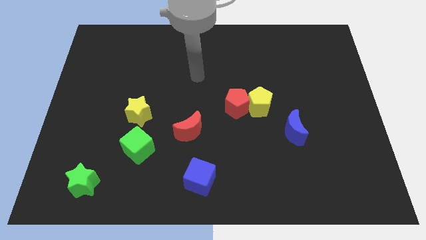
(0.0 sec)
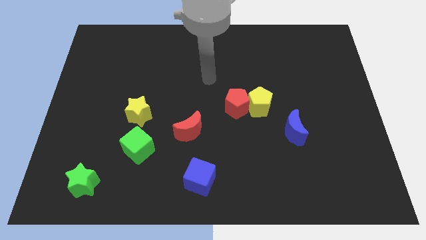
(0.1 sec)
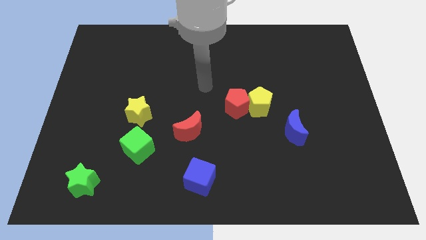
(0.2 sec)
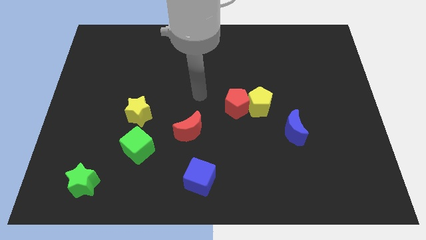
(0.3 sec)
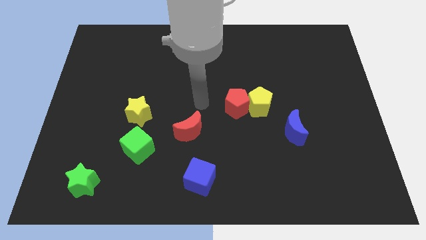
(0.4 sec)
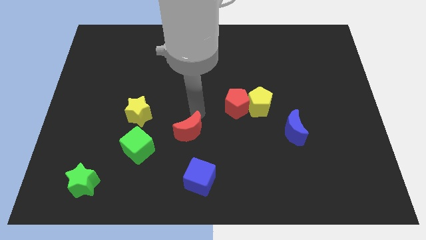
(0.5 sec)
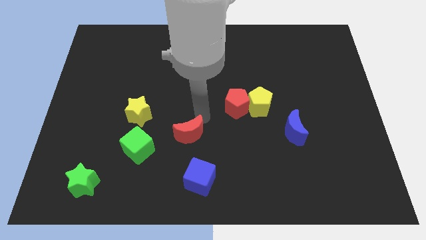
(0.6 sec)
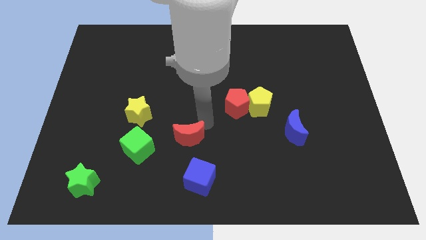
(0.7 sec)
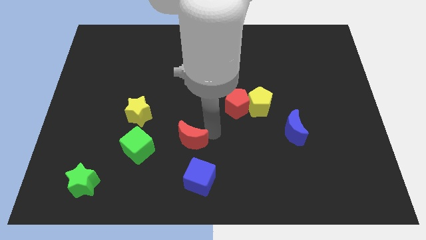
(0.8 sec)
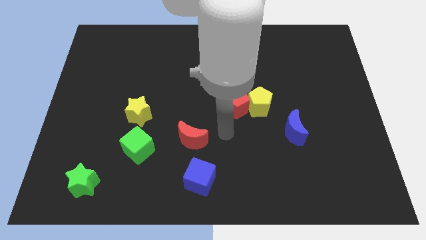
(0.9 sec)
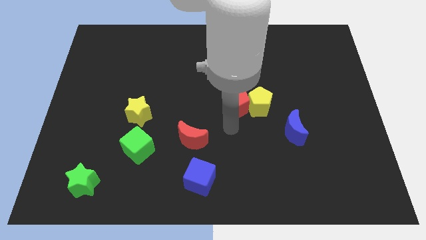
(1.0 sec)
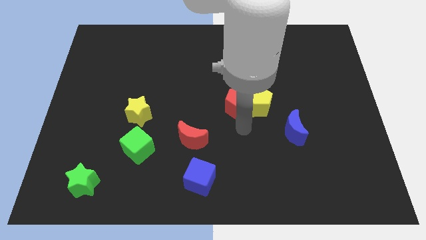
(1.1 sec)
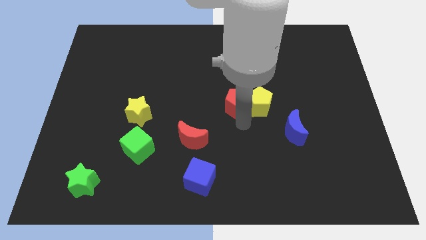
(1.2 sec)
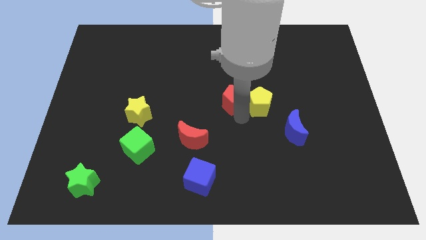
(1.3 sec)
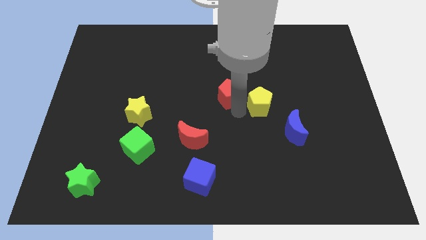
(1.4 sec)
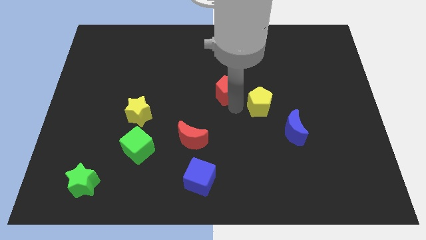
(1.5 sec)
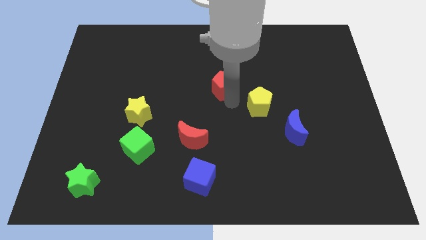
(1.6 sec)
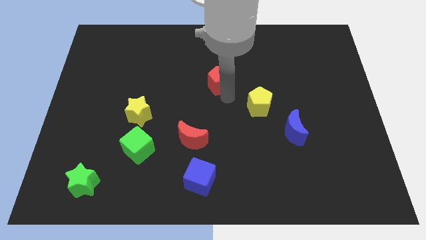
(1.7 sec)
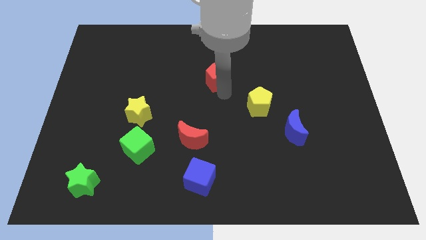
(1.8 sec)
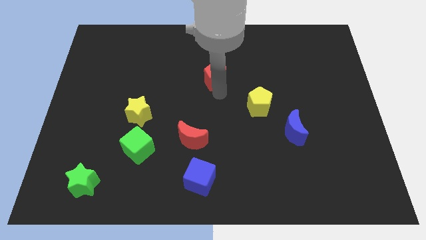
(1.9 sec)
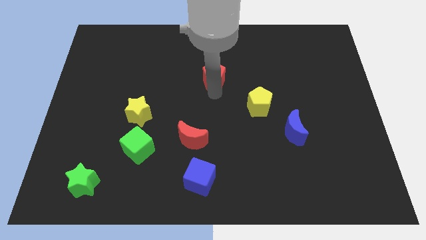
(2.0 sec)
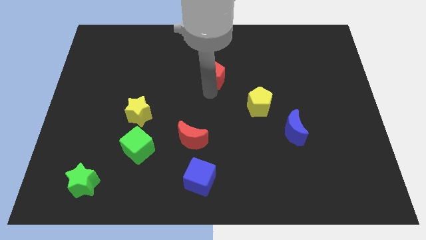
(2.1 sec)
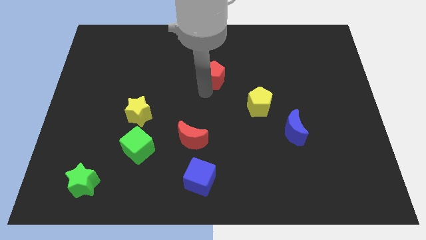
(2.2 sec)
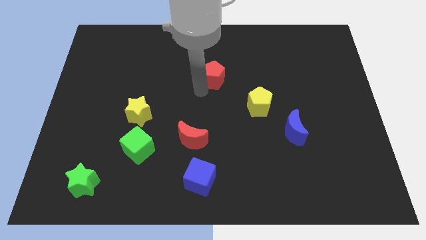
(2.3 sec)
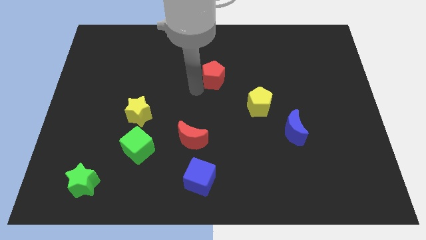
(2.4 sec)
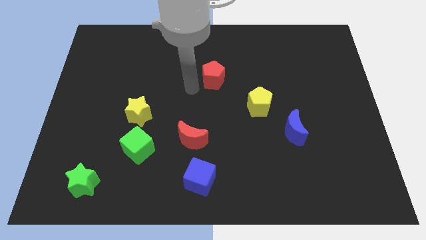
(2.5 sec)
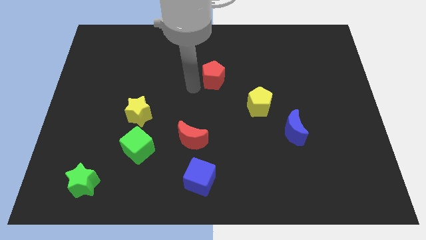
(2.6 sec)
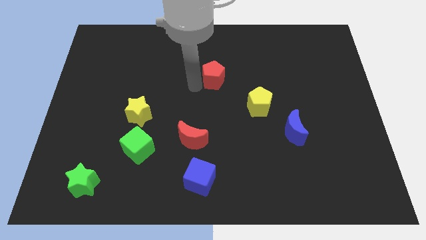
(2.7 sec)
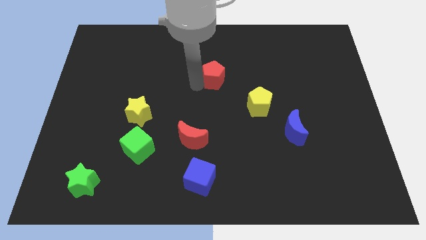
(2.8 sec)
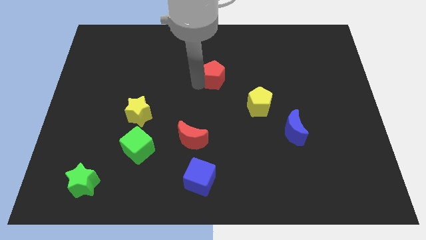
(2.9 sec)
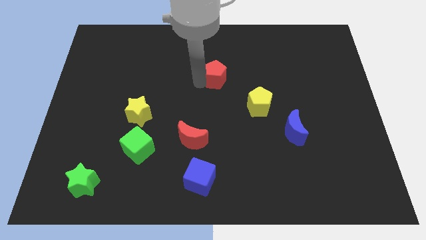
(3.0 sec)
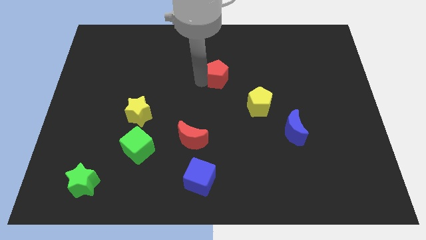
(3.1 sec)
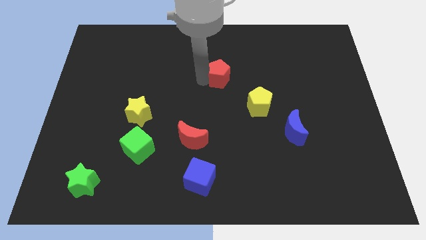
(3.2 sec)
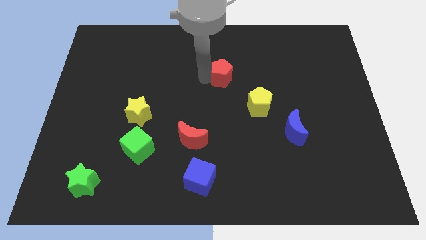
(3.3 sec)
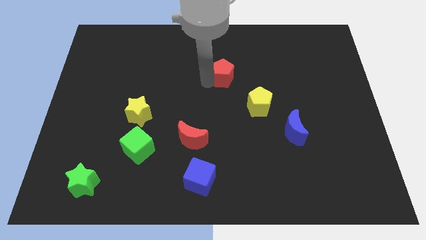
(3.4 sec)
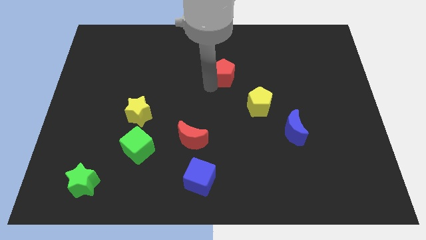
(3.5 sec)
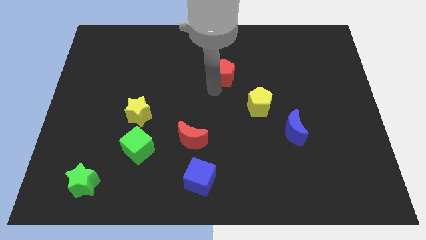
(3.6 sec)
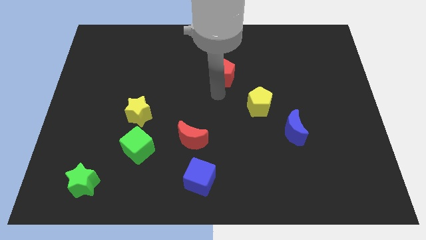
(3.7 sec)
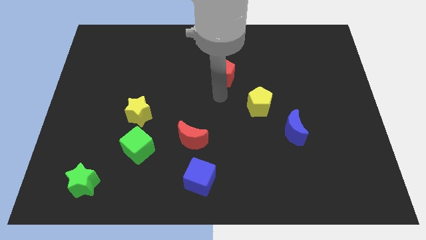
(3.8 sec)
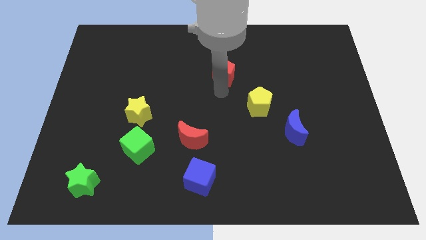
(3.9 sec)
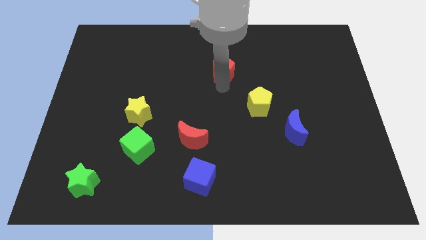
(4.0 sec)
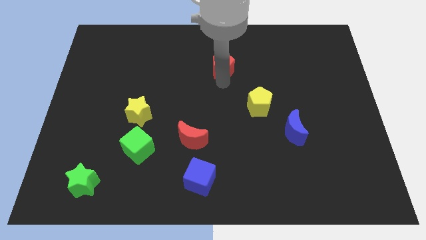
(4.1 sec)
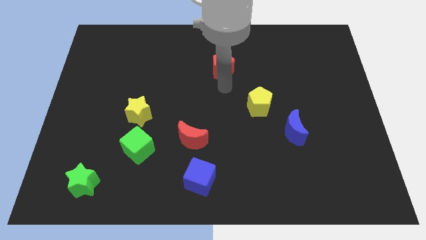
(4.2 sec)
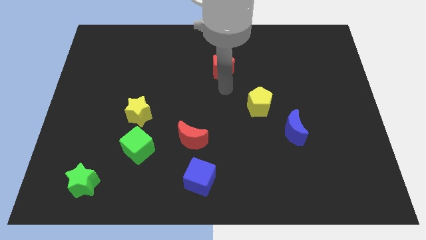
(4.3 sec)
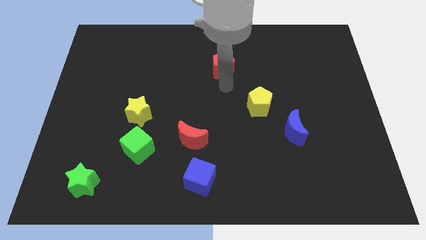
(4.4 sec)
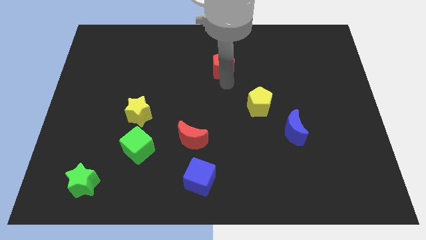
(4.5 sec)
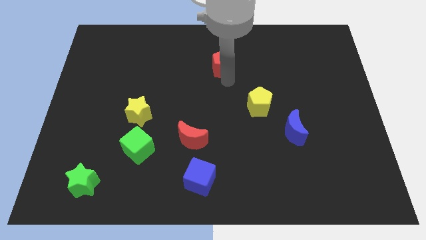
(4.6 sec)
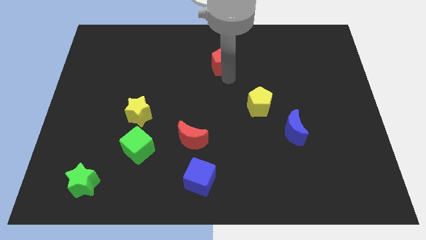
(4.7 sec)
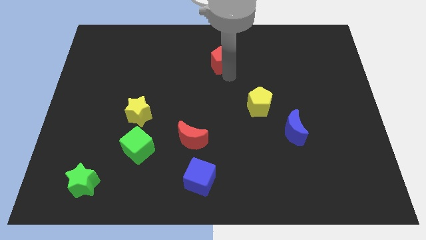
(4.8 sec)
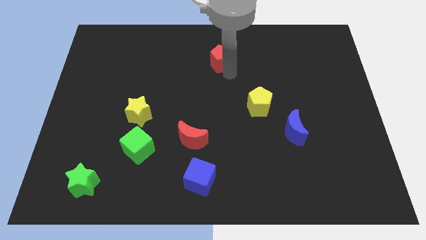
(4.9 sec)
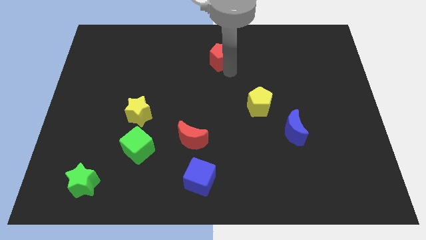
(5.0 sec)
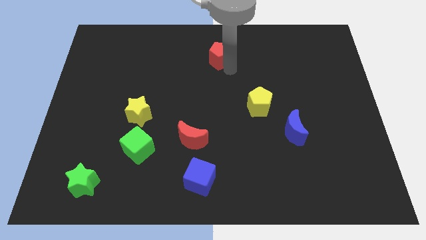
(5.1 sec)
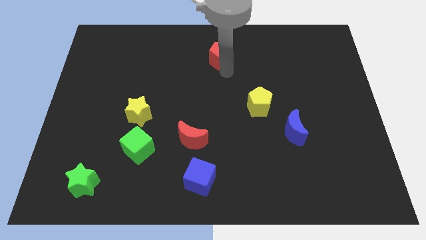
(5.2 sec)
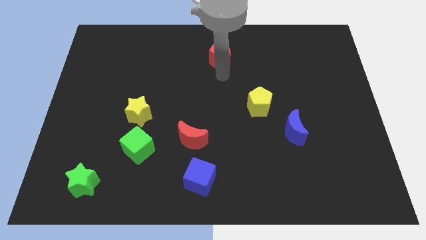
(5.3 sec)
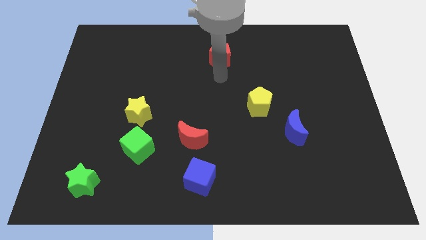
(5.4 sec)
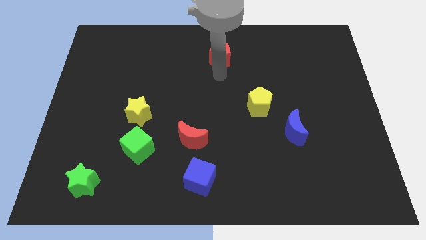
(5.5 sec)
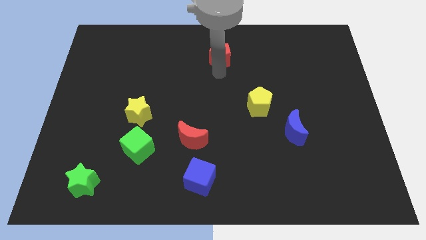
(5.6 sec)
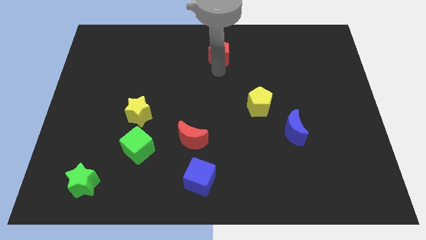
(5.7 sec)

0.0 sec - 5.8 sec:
move the red pentagon to the top side

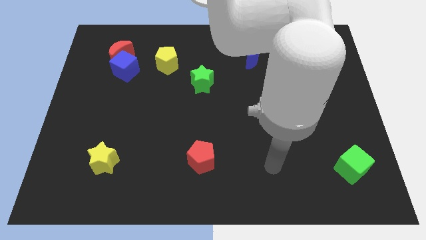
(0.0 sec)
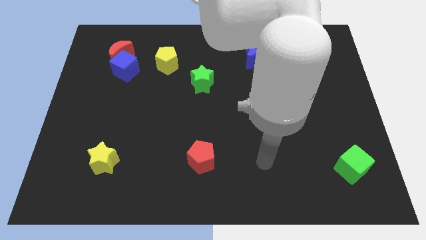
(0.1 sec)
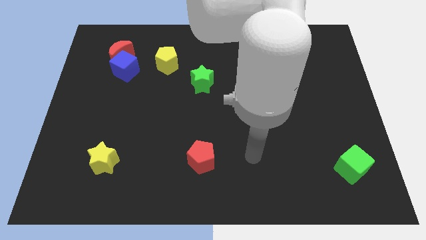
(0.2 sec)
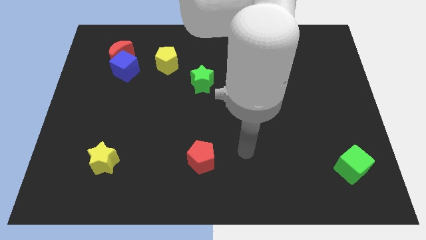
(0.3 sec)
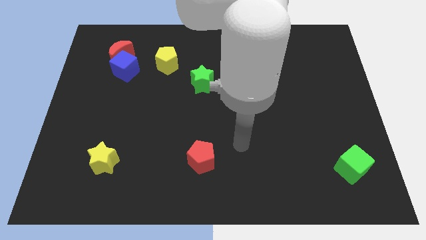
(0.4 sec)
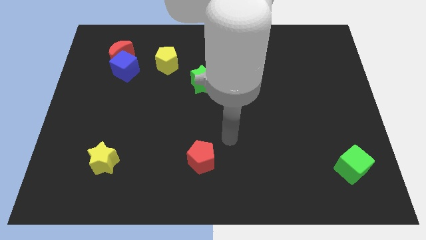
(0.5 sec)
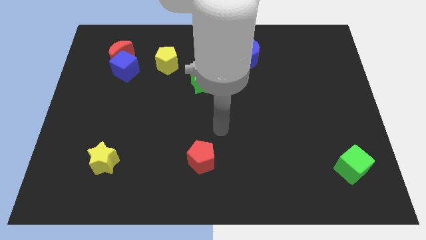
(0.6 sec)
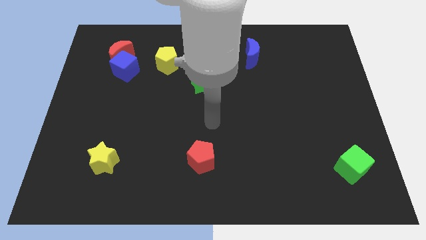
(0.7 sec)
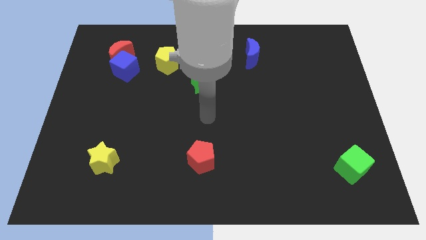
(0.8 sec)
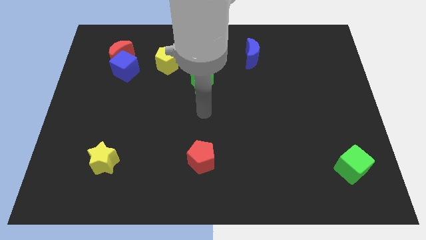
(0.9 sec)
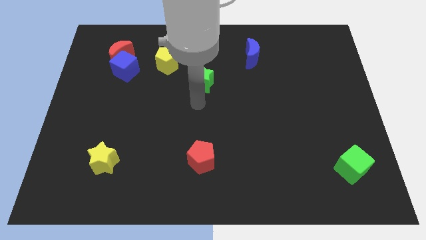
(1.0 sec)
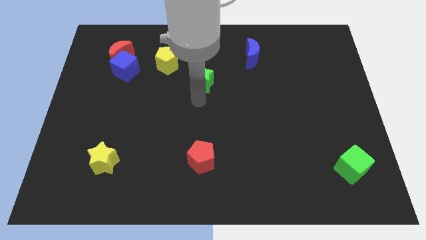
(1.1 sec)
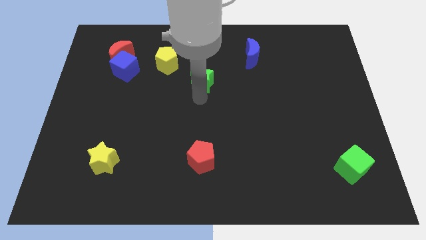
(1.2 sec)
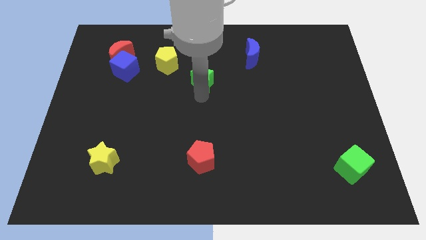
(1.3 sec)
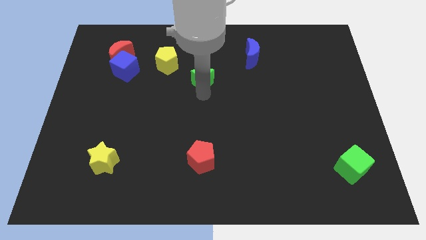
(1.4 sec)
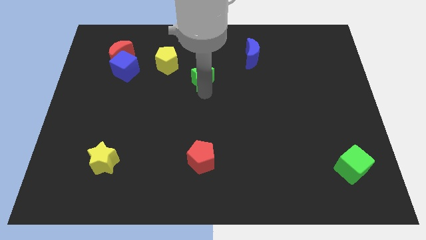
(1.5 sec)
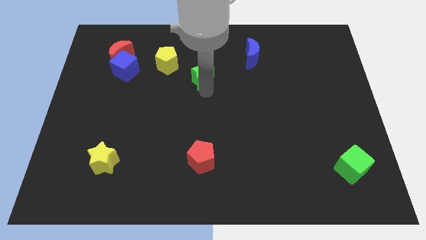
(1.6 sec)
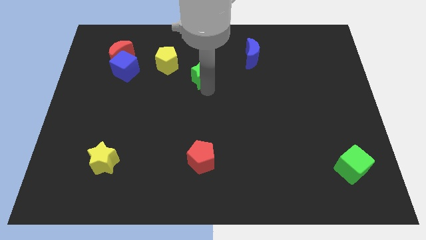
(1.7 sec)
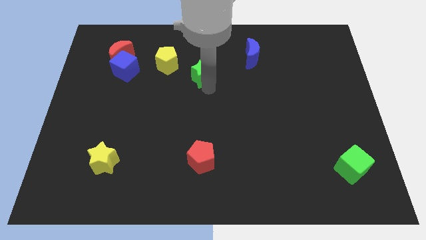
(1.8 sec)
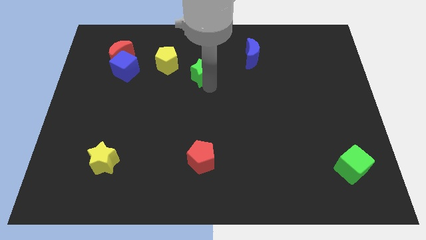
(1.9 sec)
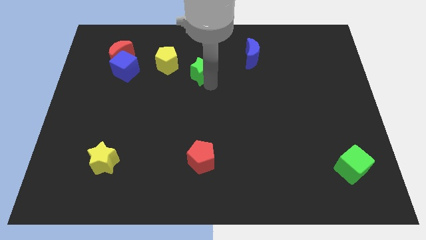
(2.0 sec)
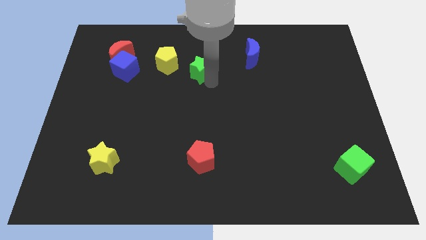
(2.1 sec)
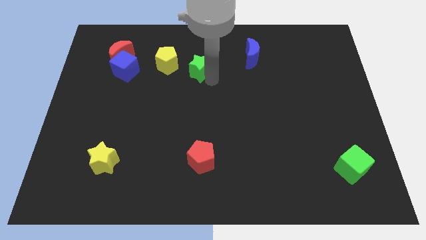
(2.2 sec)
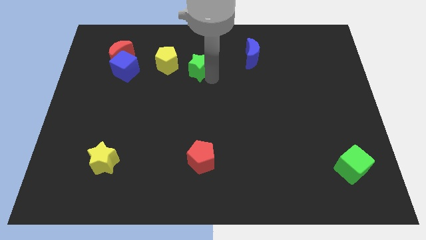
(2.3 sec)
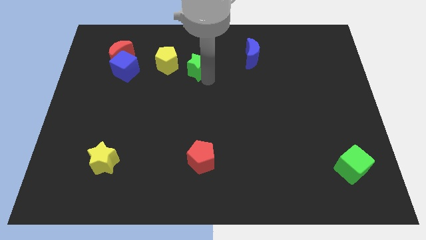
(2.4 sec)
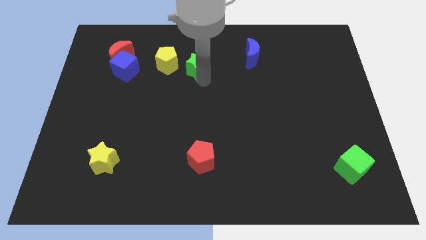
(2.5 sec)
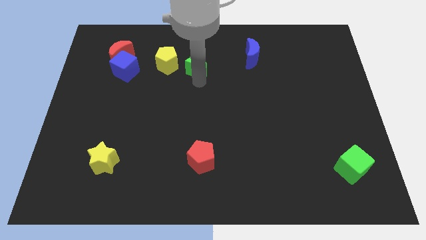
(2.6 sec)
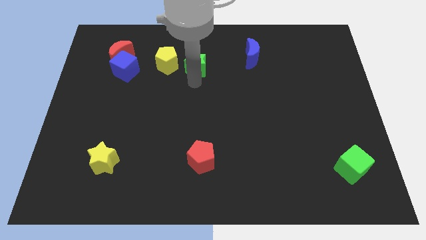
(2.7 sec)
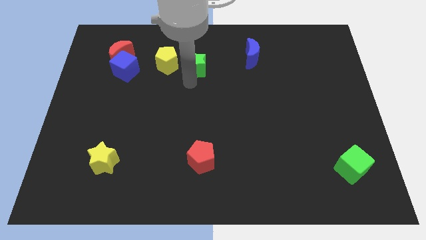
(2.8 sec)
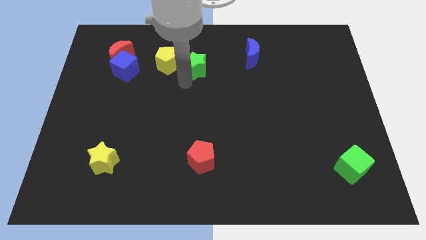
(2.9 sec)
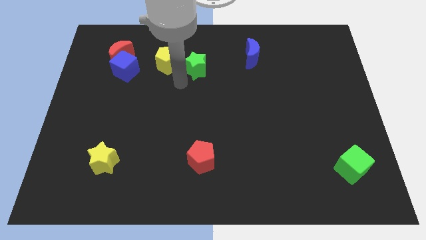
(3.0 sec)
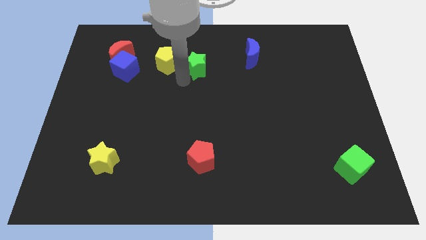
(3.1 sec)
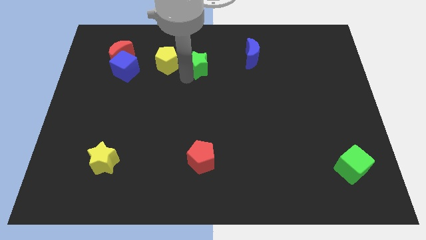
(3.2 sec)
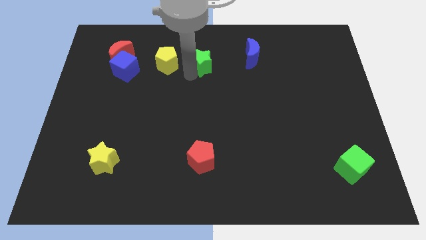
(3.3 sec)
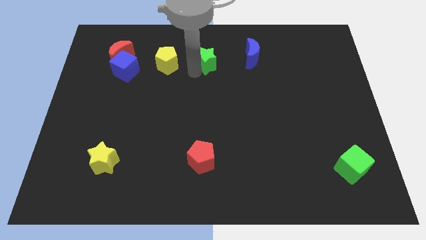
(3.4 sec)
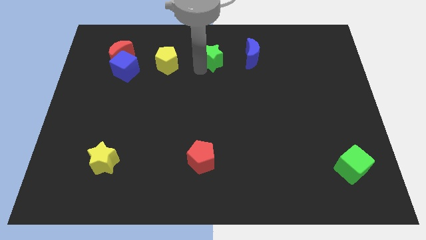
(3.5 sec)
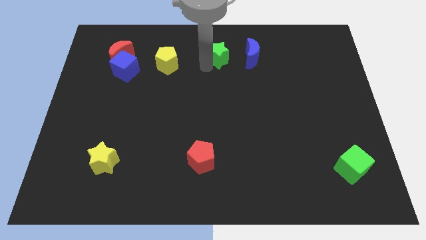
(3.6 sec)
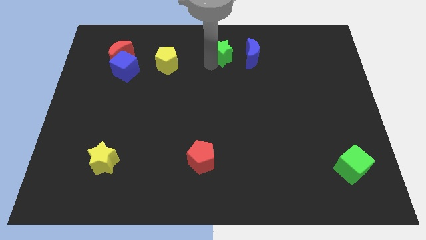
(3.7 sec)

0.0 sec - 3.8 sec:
move the green star to the top
